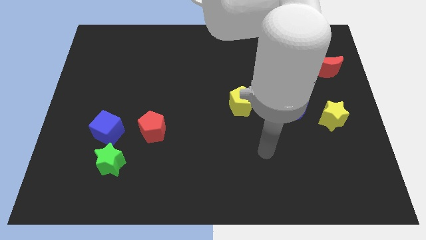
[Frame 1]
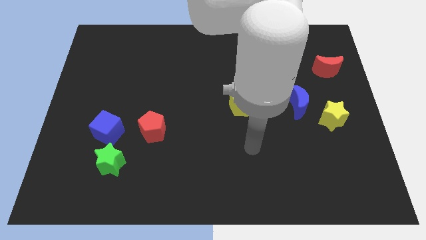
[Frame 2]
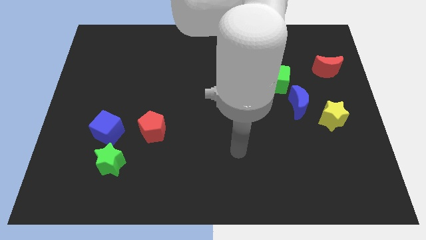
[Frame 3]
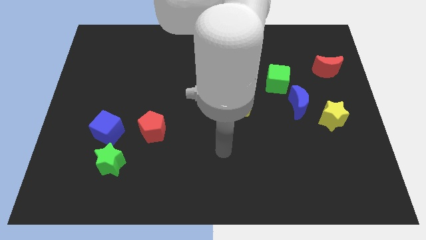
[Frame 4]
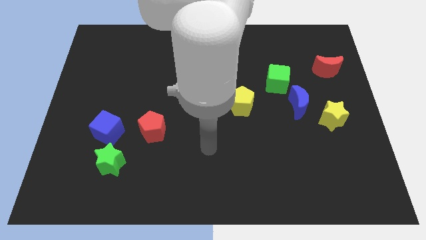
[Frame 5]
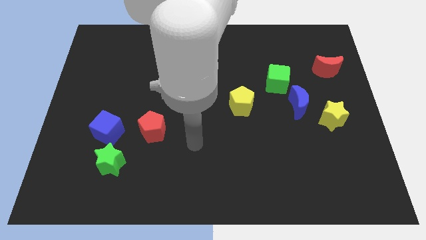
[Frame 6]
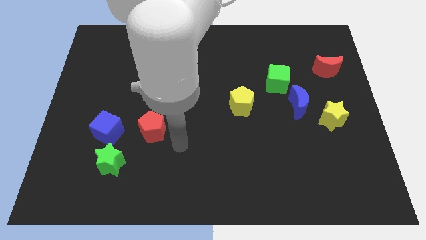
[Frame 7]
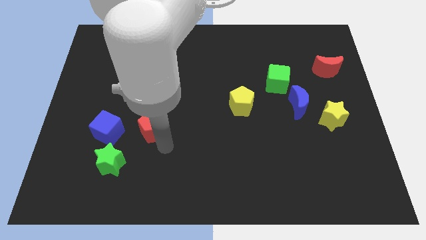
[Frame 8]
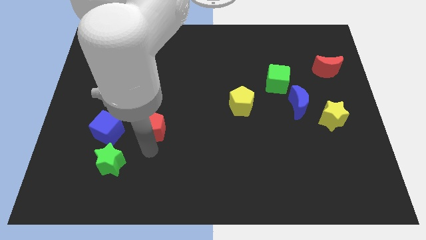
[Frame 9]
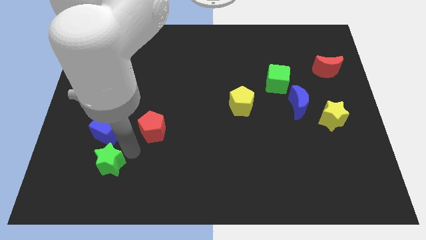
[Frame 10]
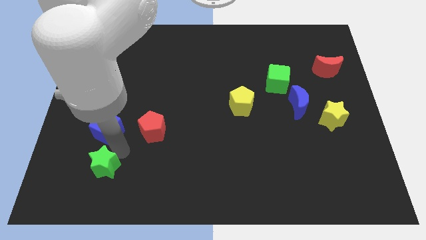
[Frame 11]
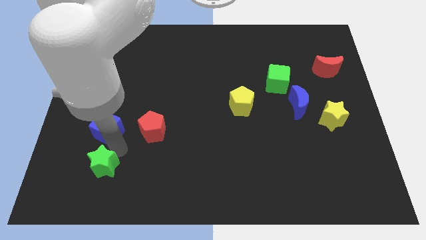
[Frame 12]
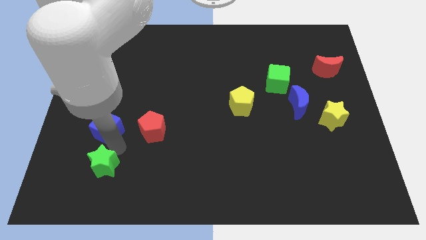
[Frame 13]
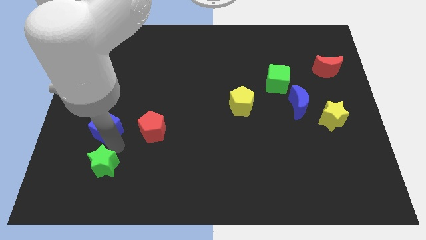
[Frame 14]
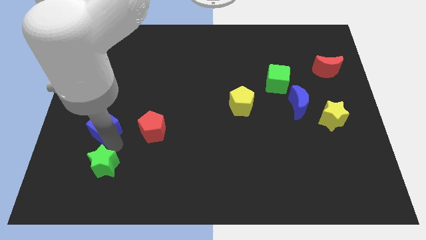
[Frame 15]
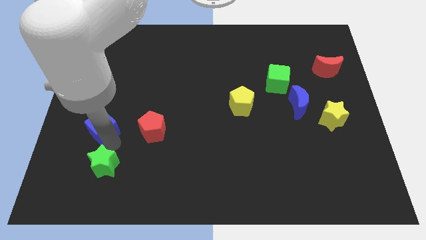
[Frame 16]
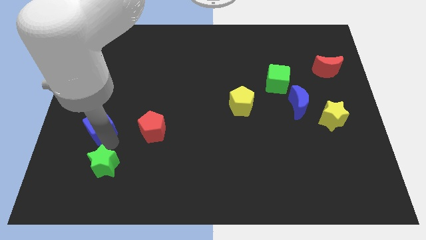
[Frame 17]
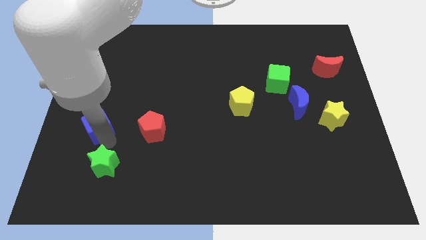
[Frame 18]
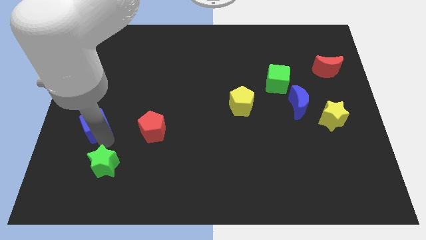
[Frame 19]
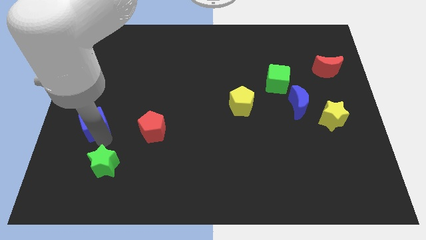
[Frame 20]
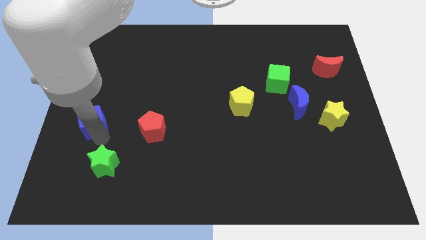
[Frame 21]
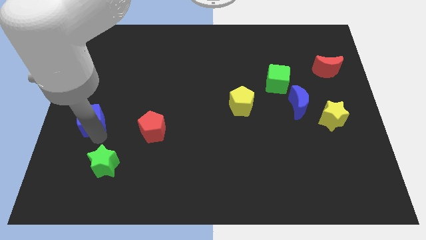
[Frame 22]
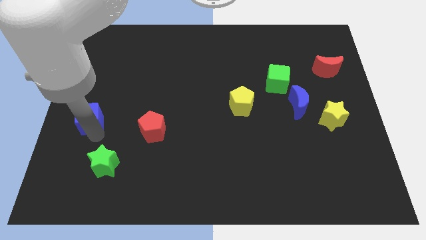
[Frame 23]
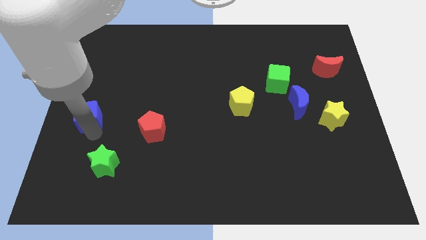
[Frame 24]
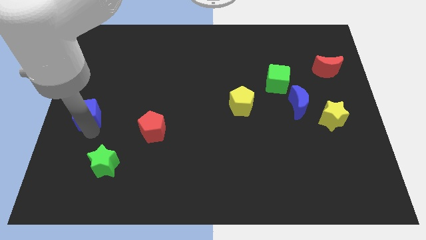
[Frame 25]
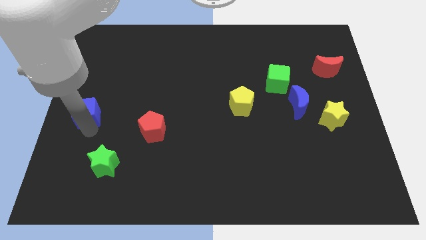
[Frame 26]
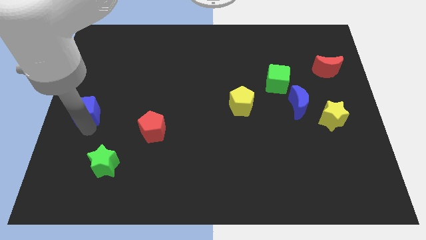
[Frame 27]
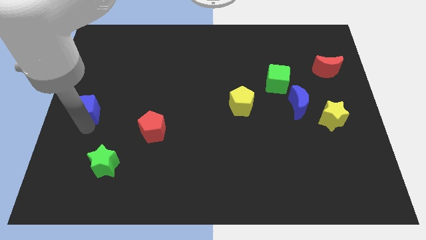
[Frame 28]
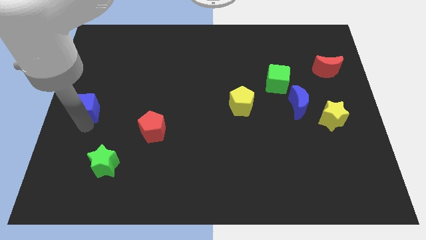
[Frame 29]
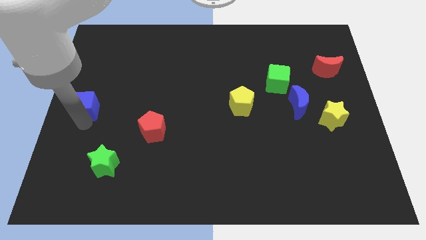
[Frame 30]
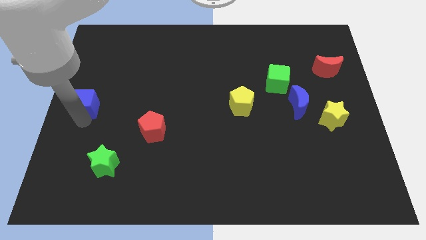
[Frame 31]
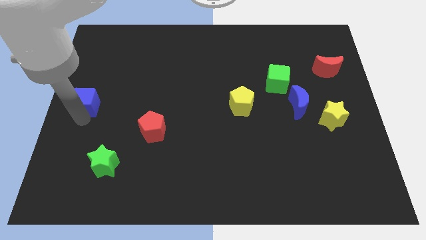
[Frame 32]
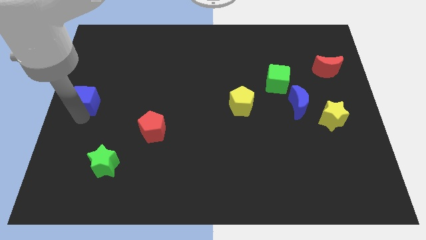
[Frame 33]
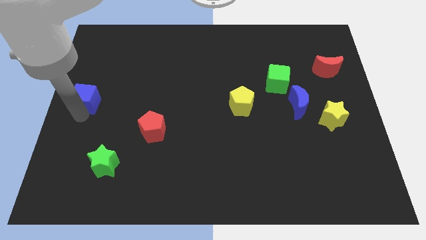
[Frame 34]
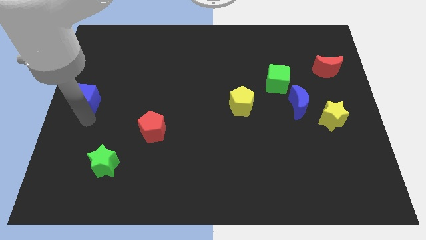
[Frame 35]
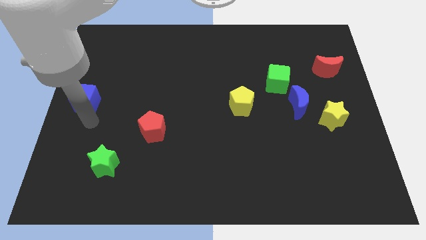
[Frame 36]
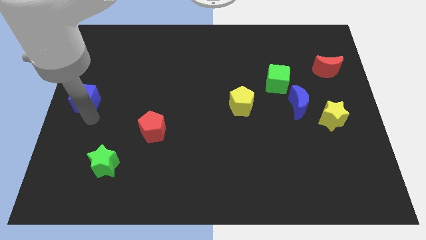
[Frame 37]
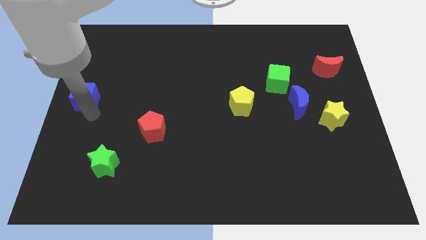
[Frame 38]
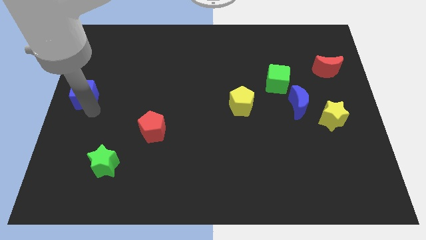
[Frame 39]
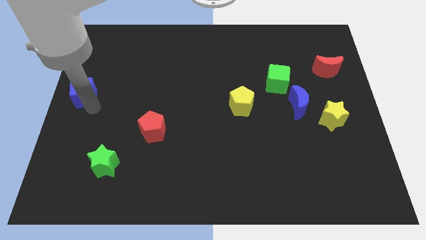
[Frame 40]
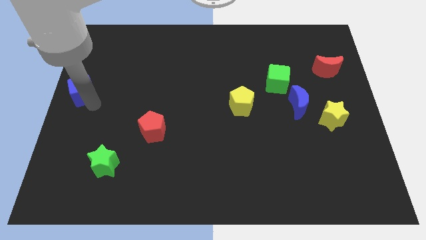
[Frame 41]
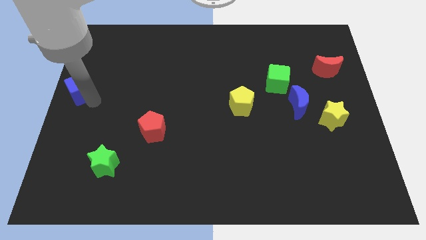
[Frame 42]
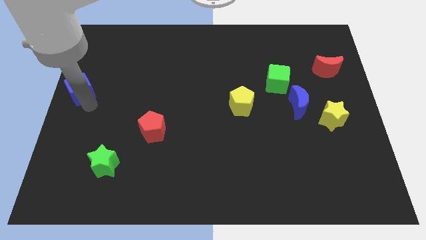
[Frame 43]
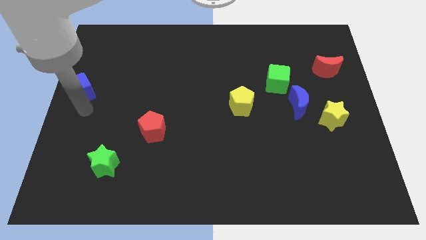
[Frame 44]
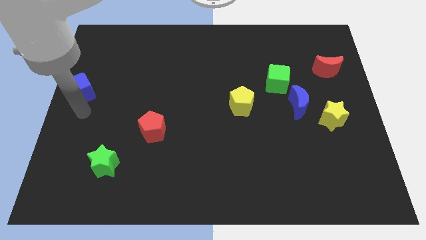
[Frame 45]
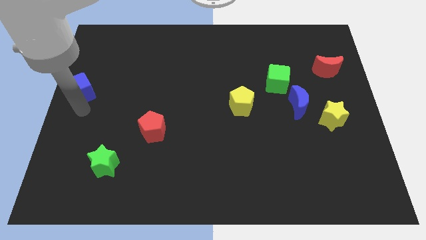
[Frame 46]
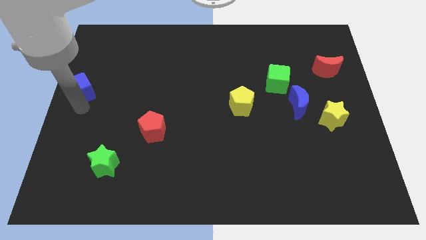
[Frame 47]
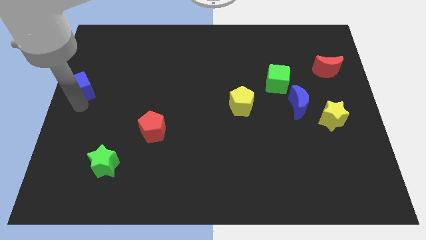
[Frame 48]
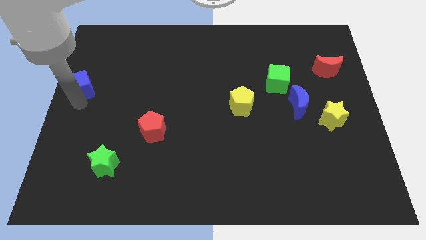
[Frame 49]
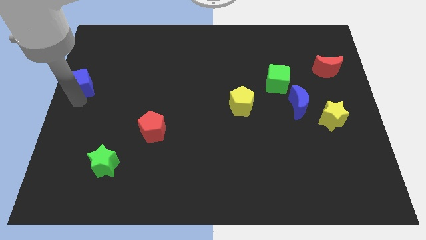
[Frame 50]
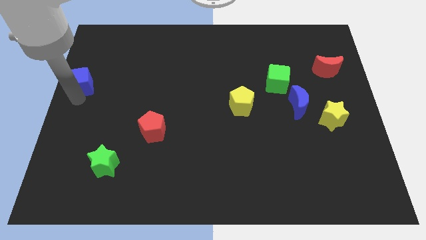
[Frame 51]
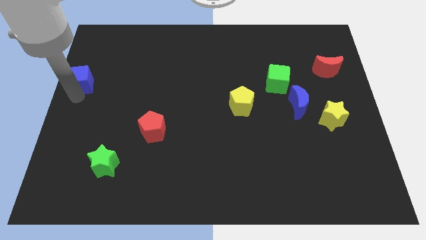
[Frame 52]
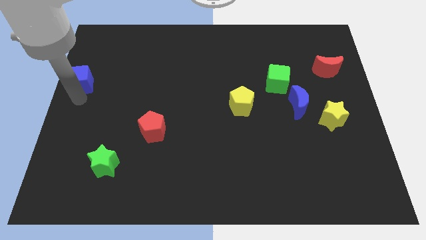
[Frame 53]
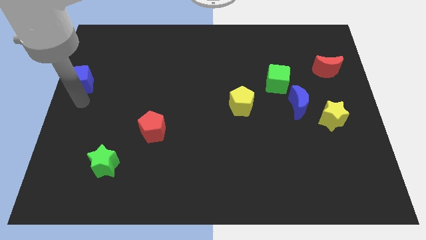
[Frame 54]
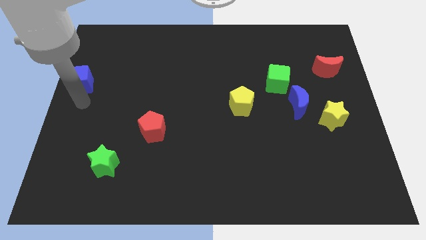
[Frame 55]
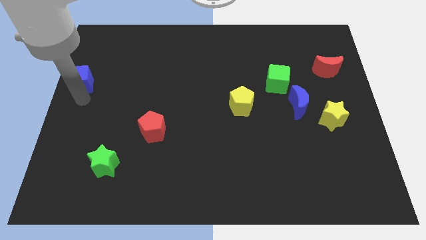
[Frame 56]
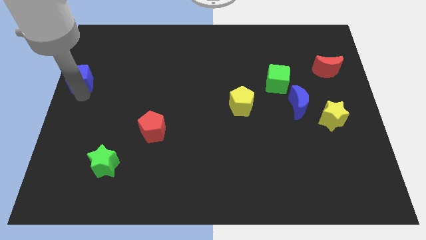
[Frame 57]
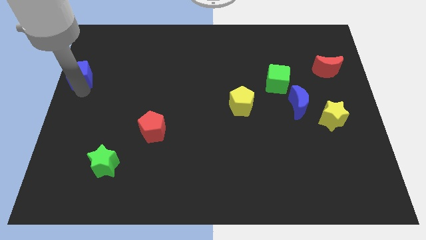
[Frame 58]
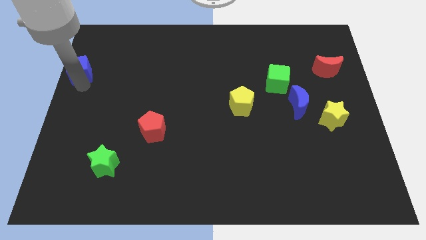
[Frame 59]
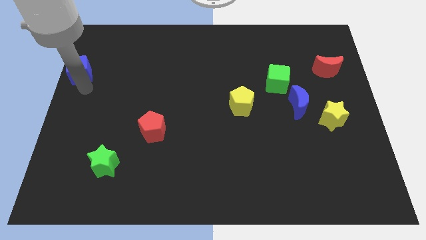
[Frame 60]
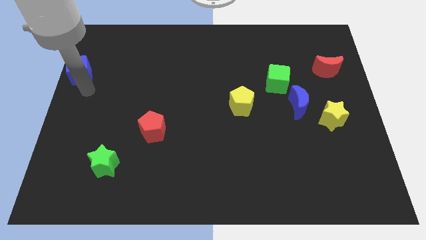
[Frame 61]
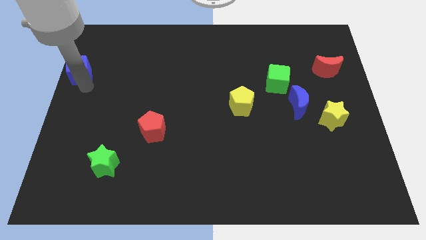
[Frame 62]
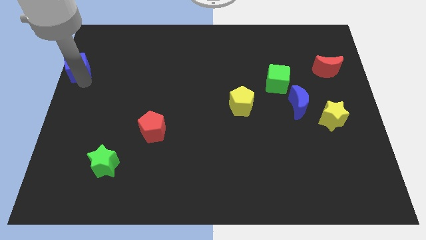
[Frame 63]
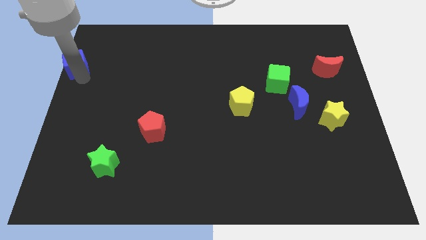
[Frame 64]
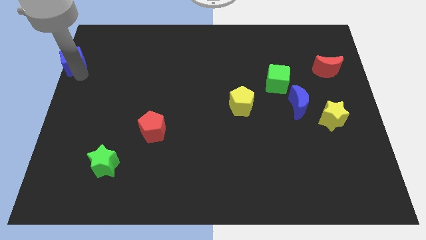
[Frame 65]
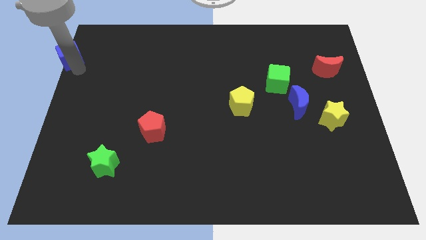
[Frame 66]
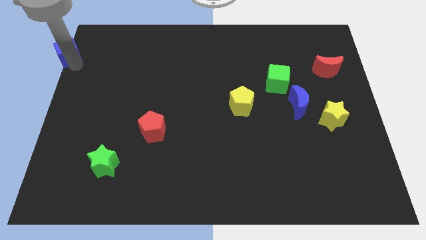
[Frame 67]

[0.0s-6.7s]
slide the blue cube to the top left corner

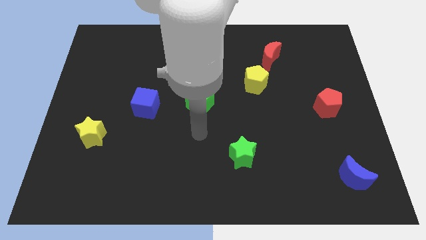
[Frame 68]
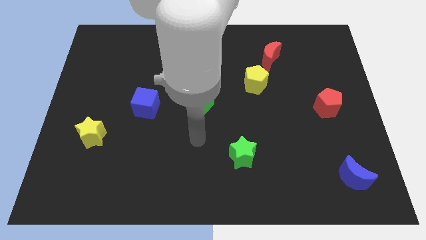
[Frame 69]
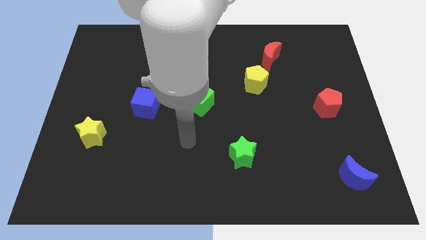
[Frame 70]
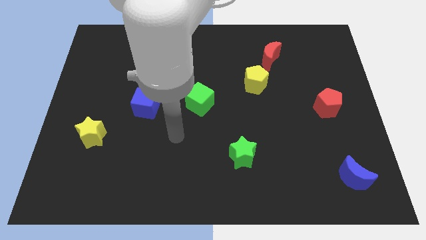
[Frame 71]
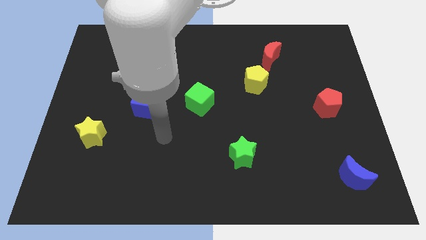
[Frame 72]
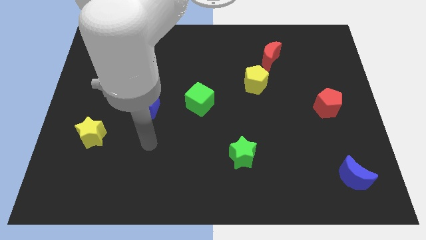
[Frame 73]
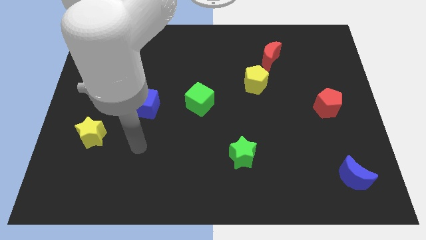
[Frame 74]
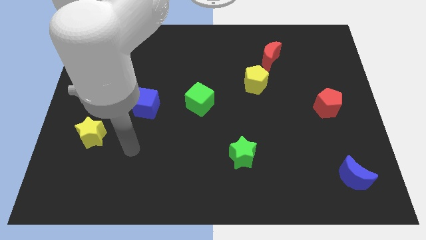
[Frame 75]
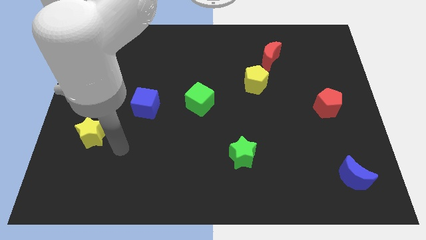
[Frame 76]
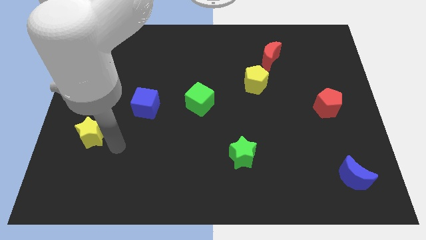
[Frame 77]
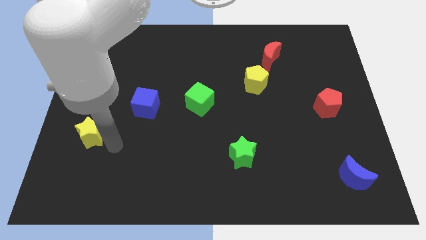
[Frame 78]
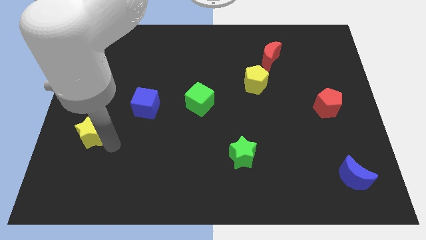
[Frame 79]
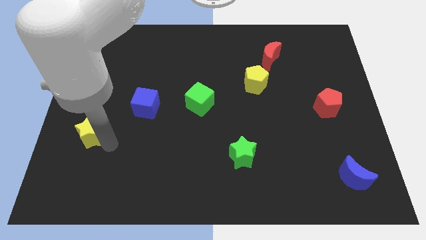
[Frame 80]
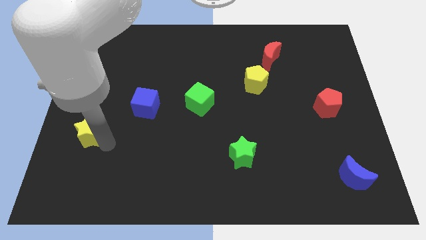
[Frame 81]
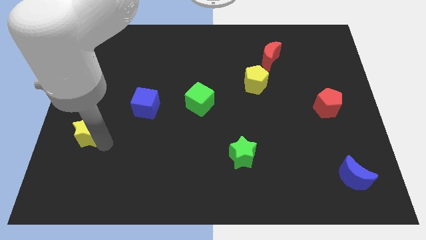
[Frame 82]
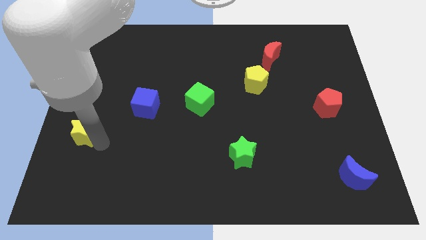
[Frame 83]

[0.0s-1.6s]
put the yellow star to the left side of the board
